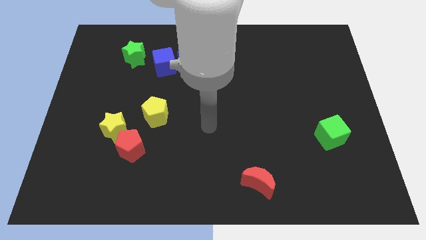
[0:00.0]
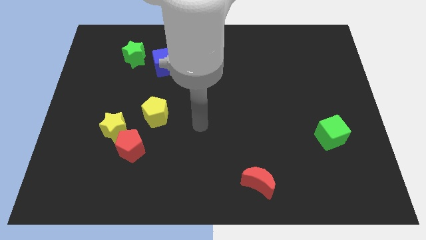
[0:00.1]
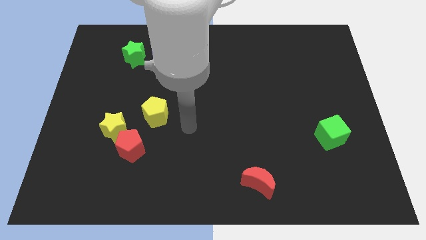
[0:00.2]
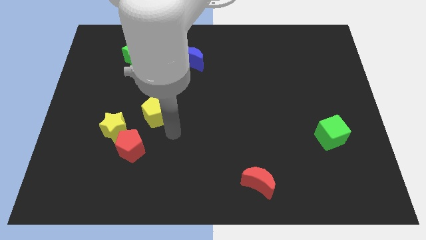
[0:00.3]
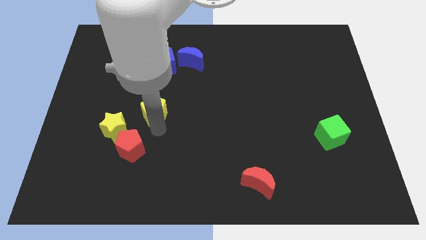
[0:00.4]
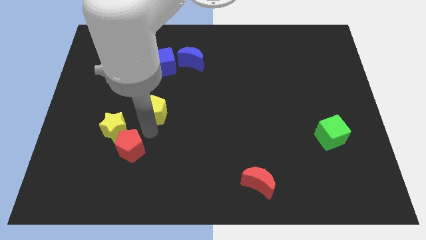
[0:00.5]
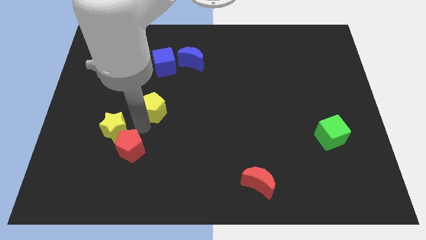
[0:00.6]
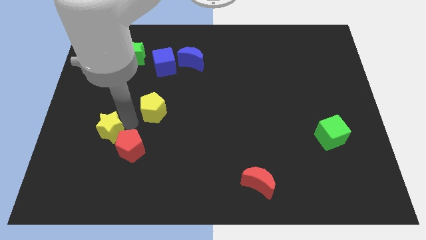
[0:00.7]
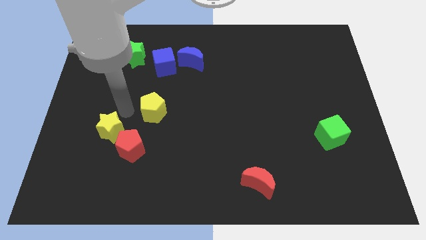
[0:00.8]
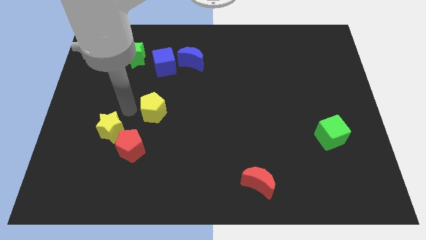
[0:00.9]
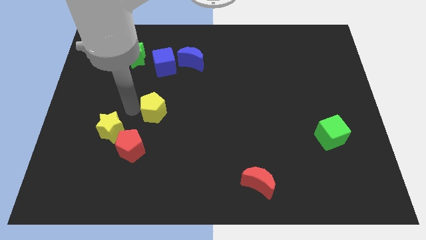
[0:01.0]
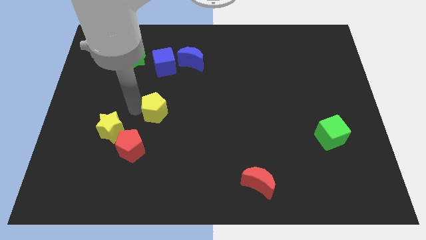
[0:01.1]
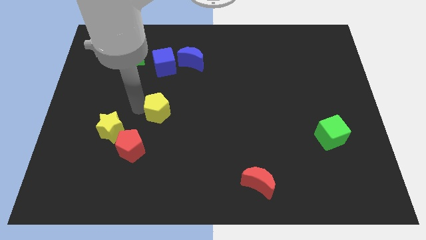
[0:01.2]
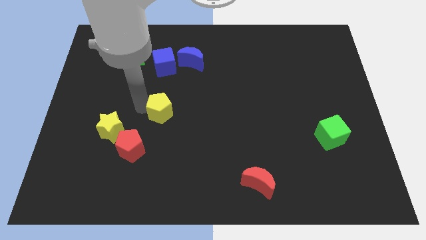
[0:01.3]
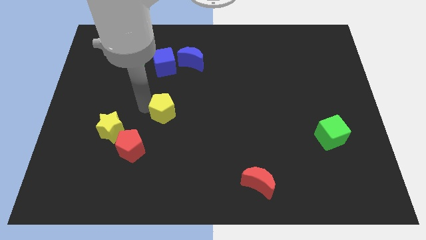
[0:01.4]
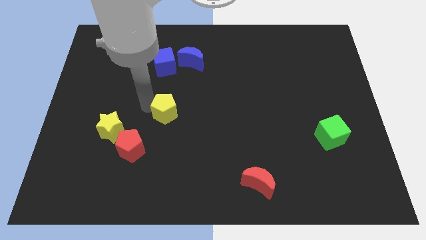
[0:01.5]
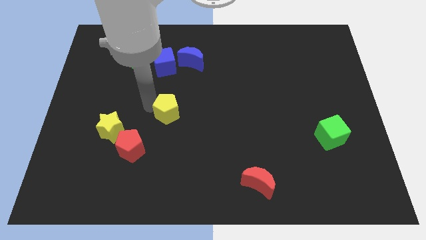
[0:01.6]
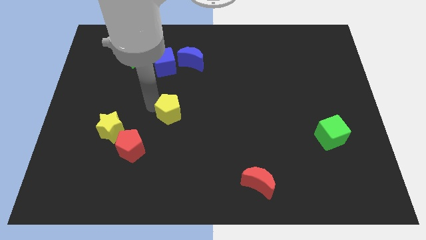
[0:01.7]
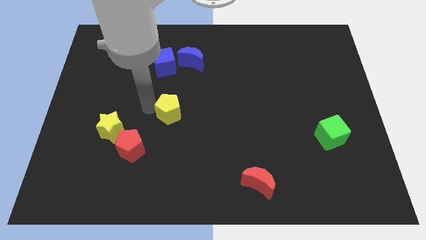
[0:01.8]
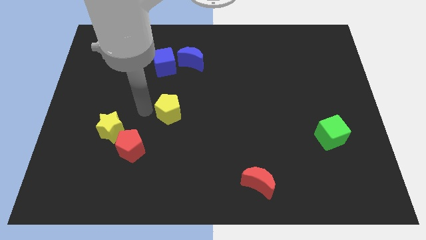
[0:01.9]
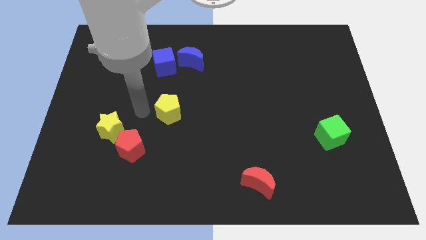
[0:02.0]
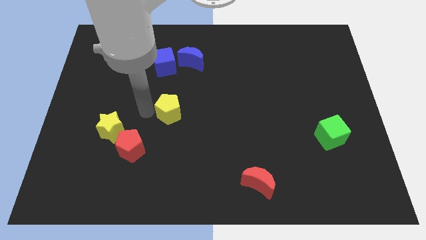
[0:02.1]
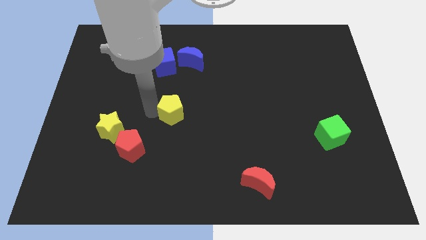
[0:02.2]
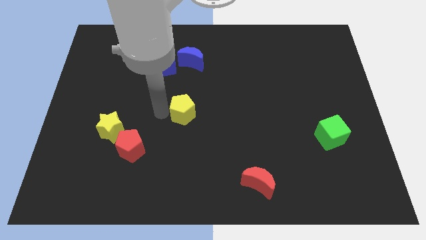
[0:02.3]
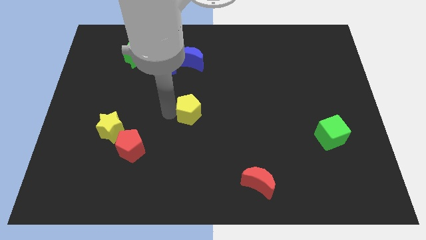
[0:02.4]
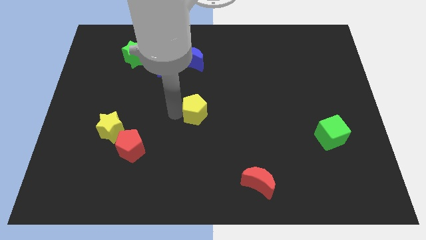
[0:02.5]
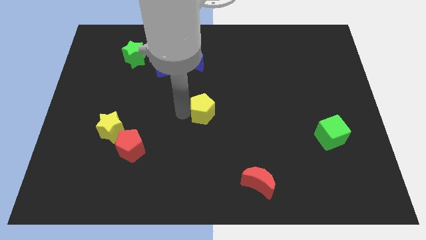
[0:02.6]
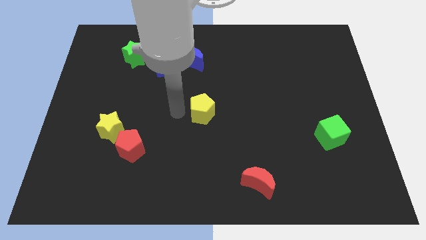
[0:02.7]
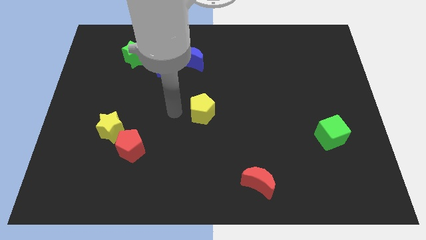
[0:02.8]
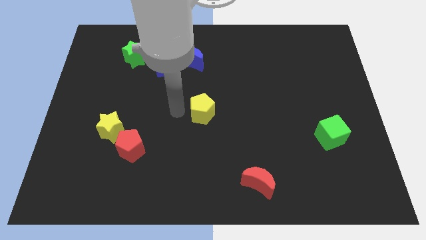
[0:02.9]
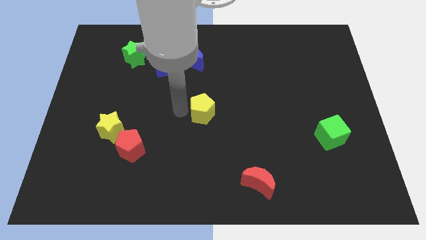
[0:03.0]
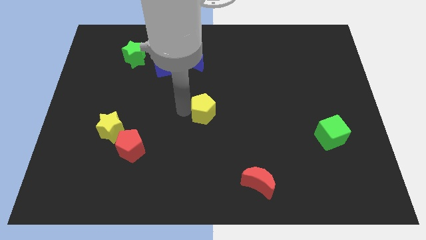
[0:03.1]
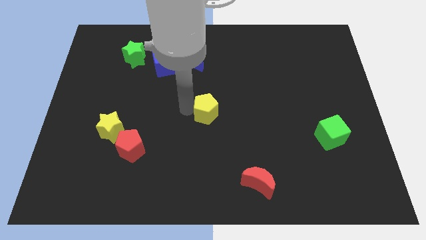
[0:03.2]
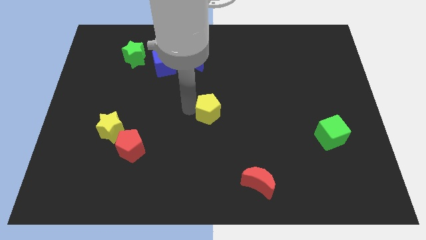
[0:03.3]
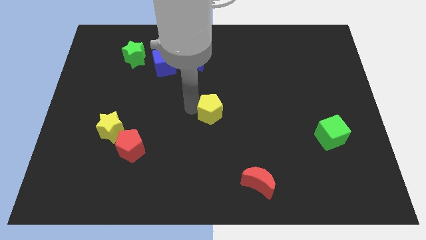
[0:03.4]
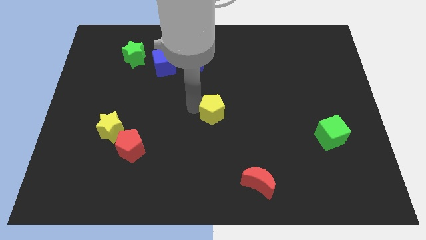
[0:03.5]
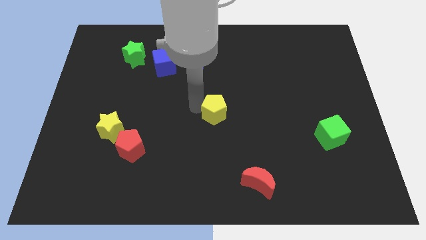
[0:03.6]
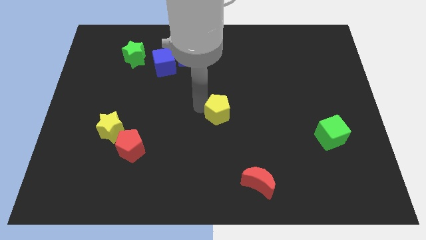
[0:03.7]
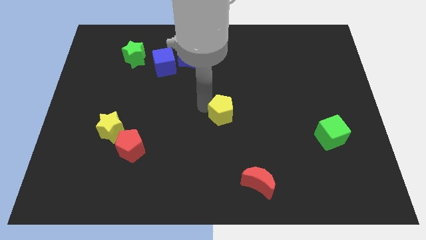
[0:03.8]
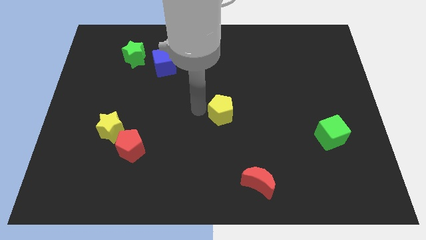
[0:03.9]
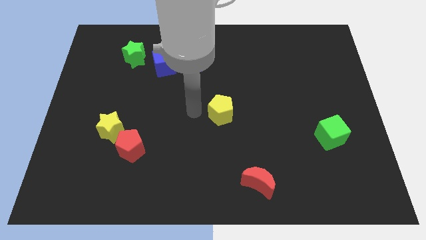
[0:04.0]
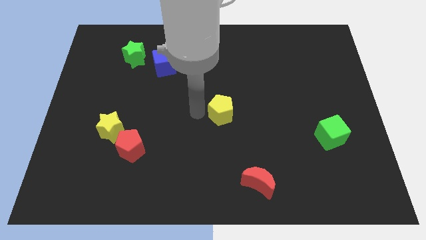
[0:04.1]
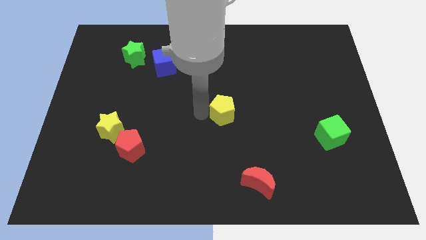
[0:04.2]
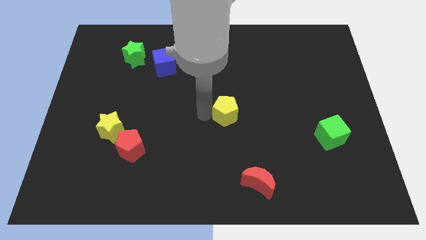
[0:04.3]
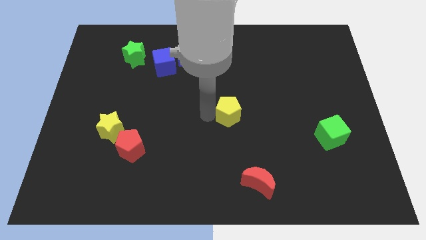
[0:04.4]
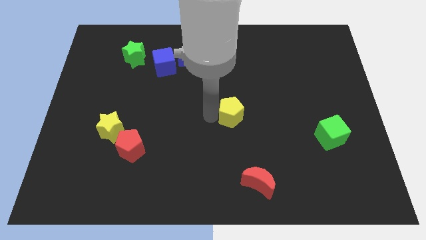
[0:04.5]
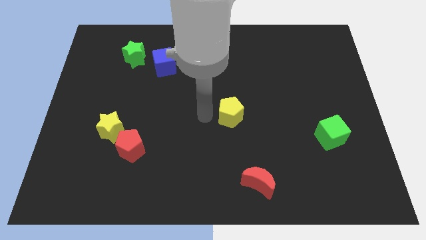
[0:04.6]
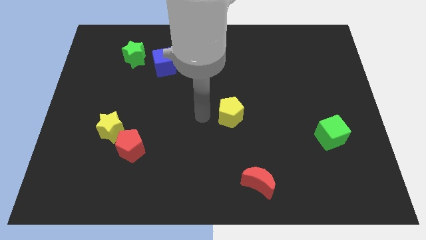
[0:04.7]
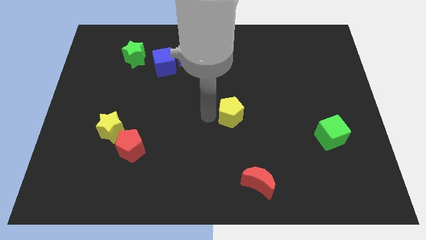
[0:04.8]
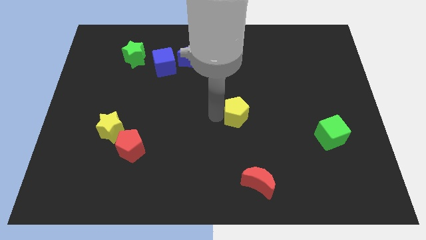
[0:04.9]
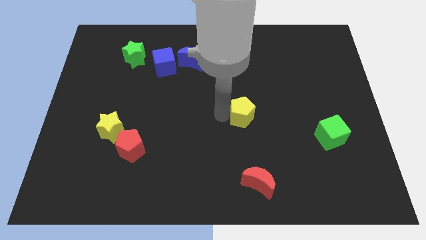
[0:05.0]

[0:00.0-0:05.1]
push the yellow pentagon right

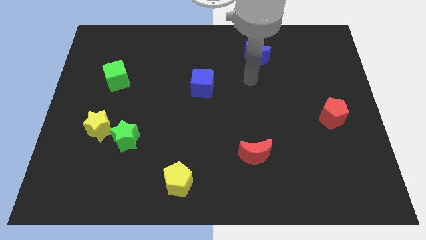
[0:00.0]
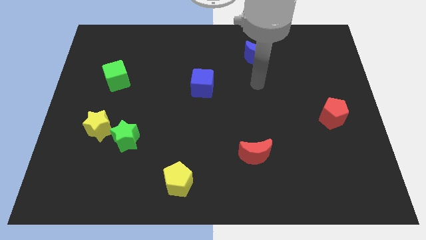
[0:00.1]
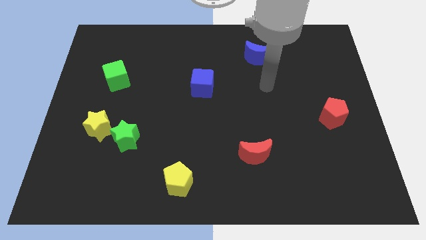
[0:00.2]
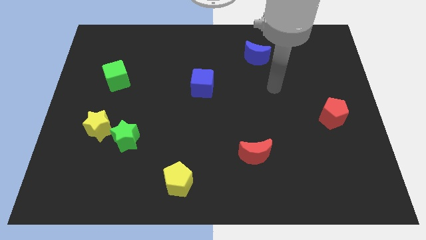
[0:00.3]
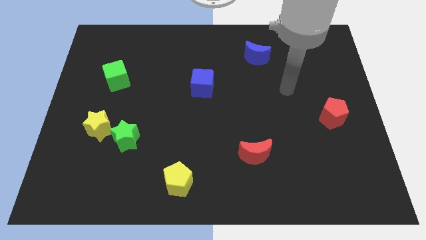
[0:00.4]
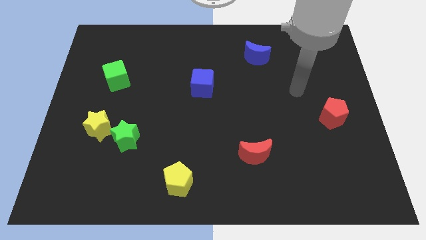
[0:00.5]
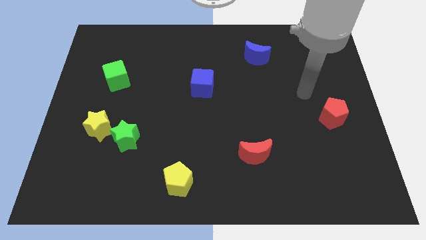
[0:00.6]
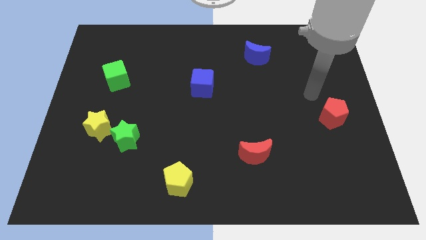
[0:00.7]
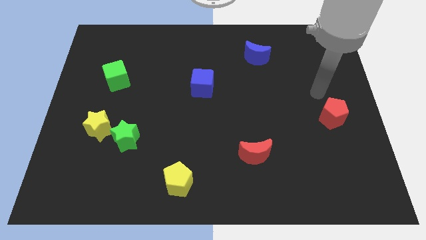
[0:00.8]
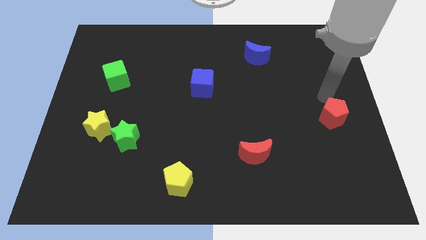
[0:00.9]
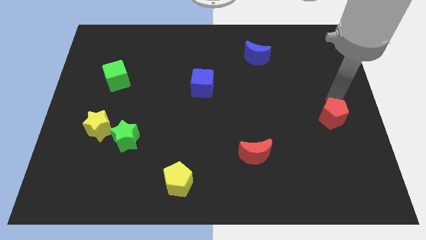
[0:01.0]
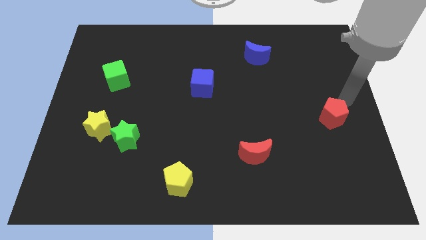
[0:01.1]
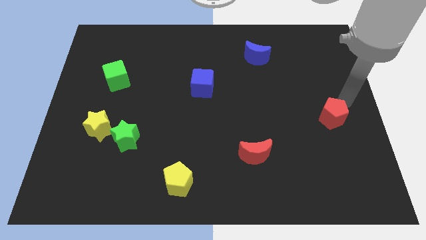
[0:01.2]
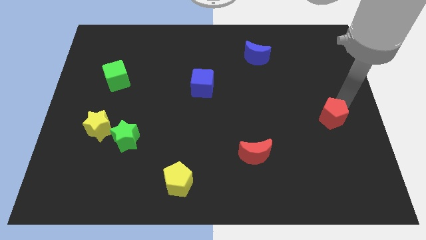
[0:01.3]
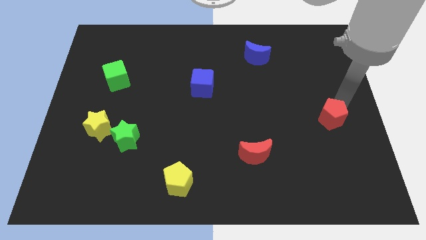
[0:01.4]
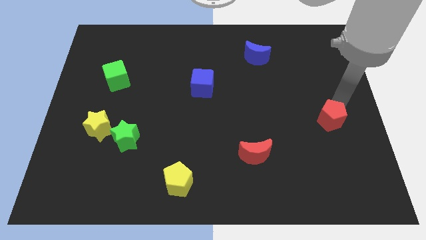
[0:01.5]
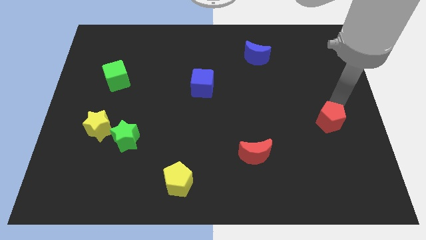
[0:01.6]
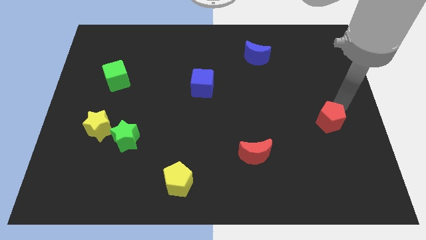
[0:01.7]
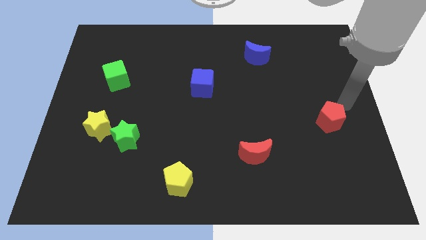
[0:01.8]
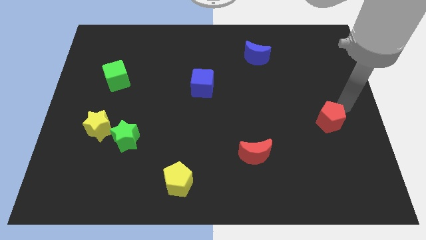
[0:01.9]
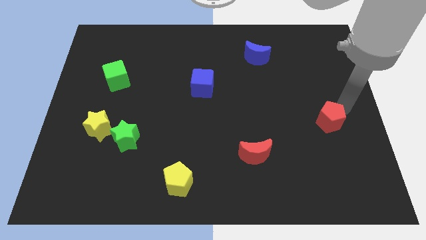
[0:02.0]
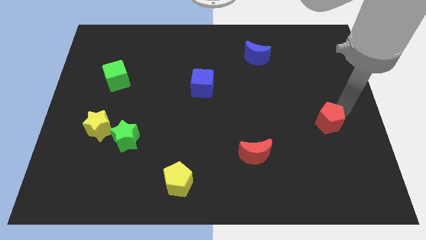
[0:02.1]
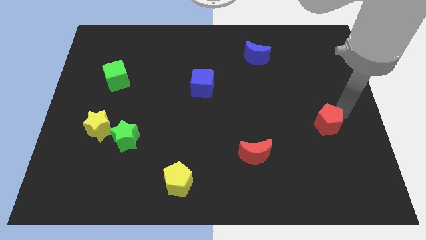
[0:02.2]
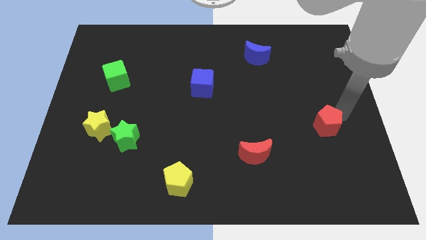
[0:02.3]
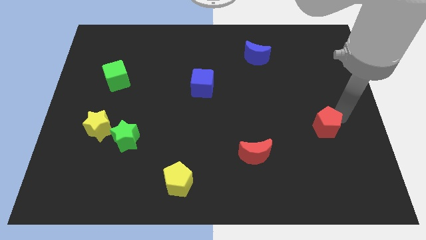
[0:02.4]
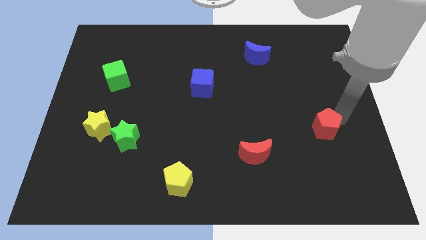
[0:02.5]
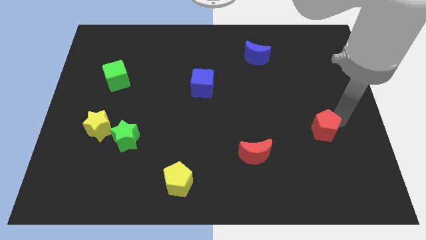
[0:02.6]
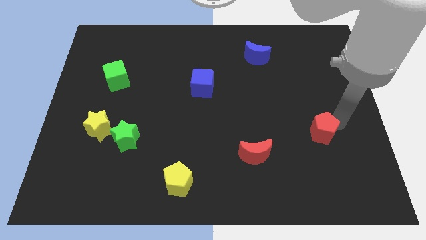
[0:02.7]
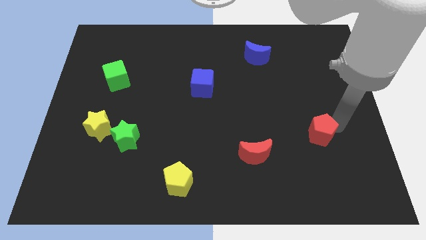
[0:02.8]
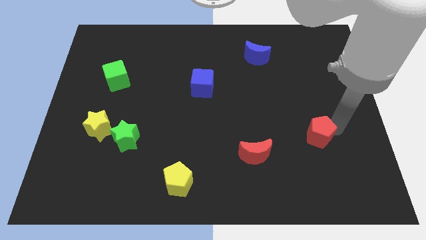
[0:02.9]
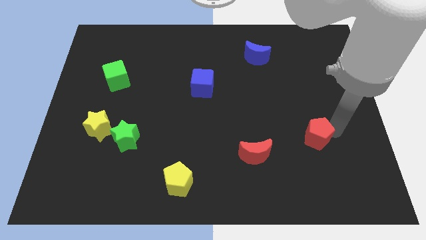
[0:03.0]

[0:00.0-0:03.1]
move the red pentagon somewhat diagonally down and to the left
